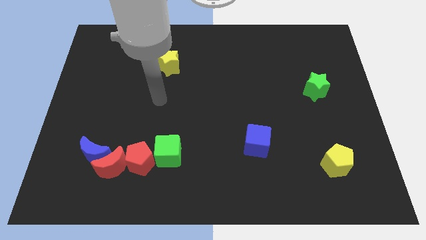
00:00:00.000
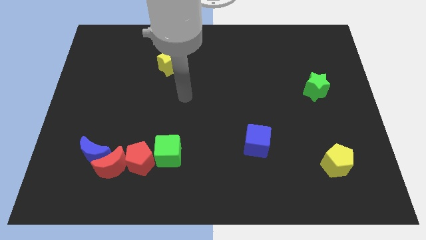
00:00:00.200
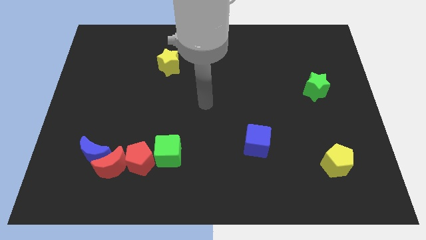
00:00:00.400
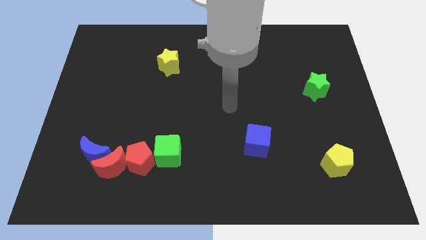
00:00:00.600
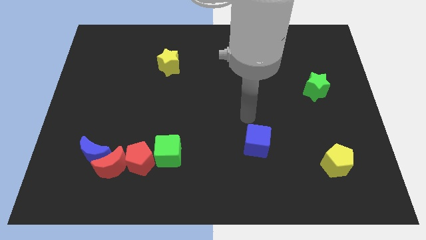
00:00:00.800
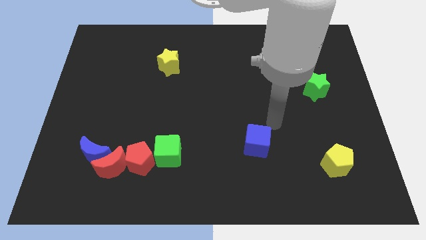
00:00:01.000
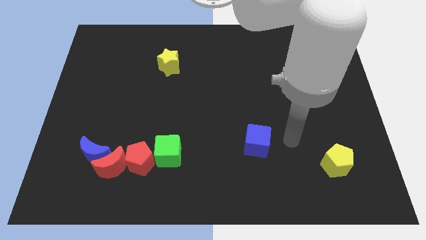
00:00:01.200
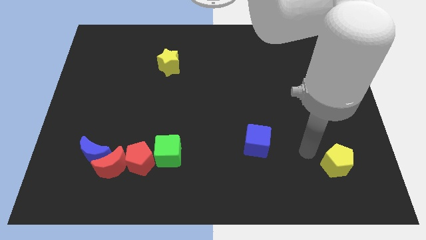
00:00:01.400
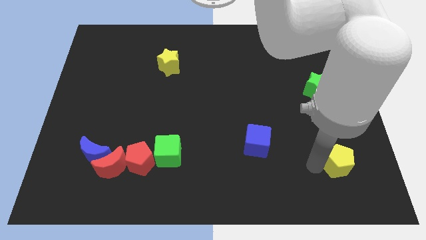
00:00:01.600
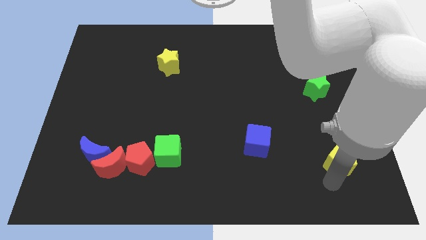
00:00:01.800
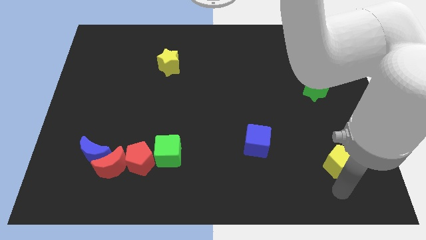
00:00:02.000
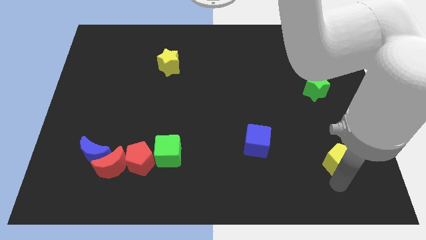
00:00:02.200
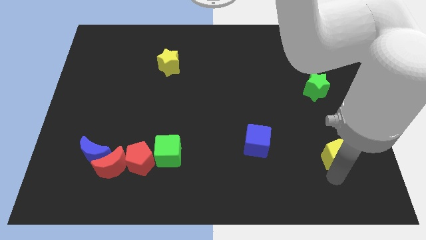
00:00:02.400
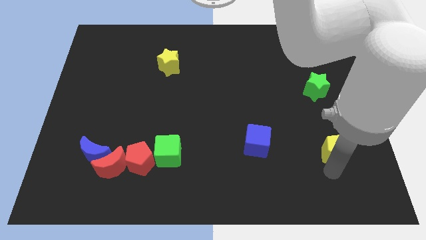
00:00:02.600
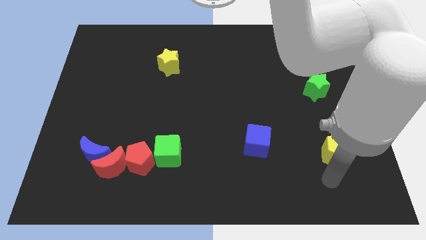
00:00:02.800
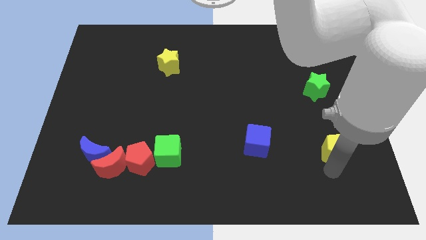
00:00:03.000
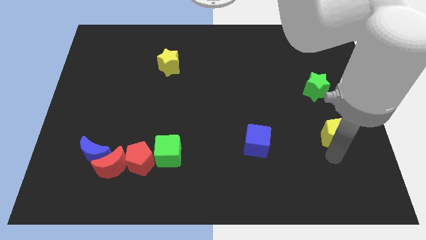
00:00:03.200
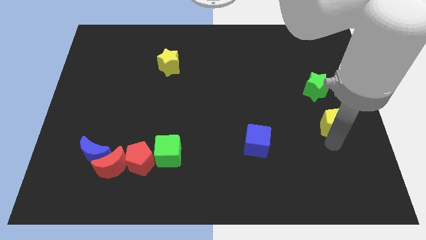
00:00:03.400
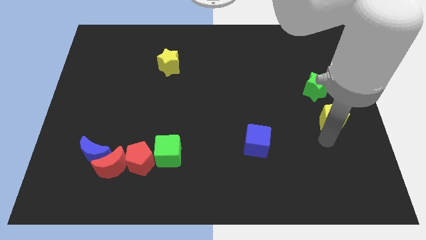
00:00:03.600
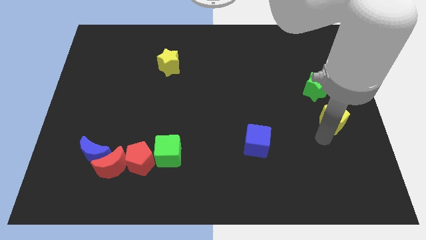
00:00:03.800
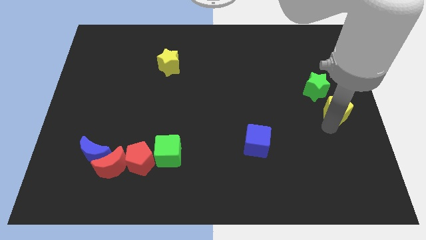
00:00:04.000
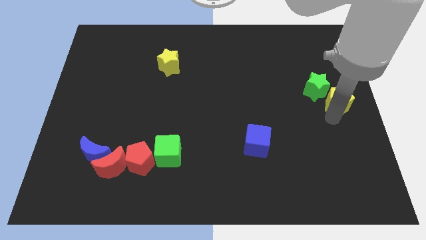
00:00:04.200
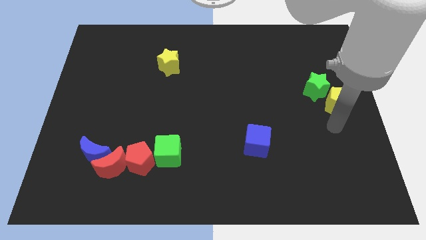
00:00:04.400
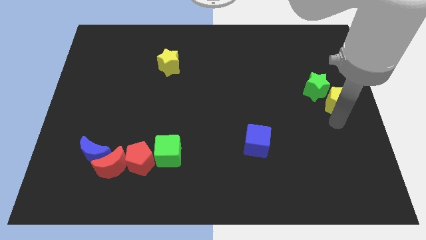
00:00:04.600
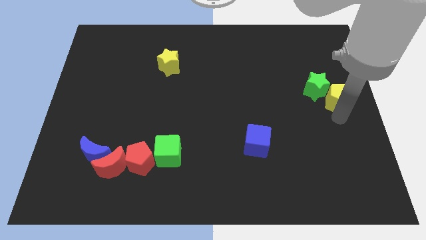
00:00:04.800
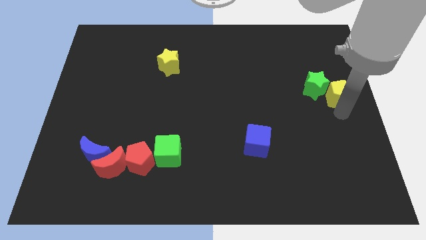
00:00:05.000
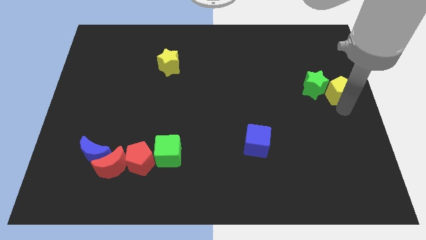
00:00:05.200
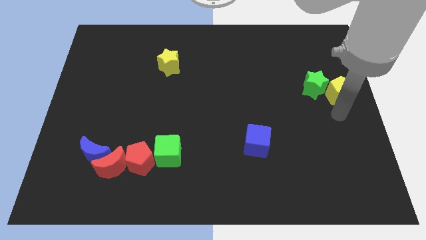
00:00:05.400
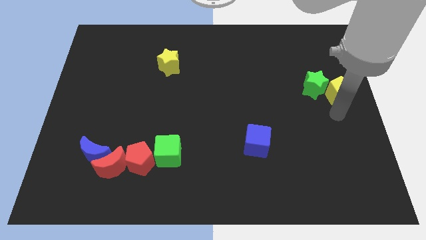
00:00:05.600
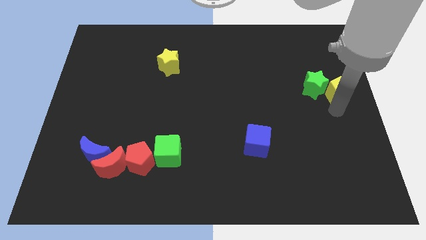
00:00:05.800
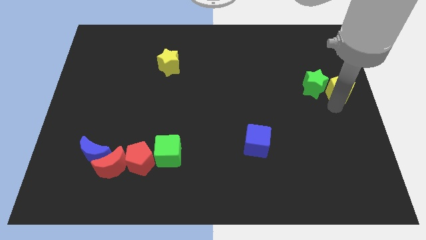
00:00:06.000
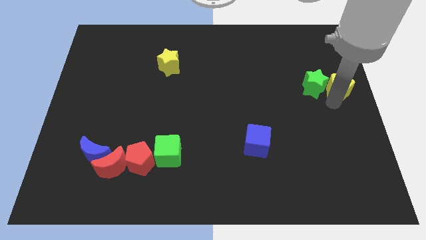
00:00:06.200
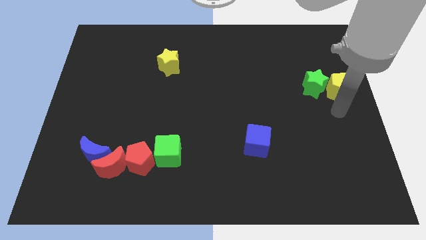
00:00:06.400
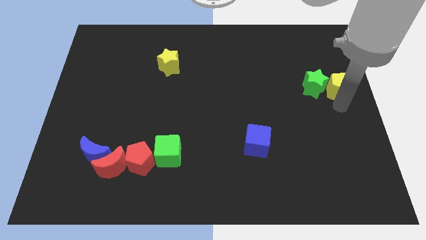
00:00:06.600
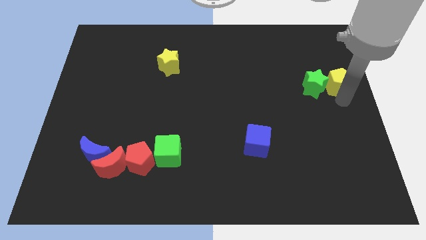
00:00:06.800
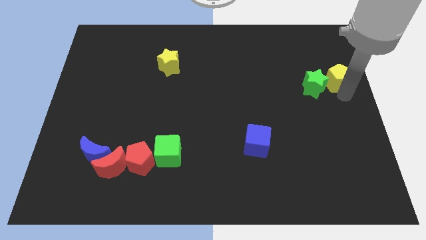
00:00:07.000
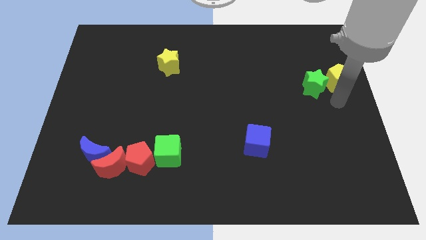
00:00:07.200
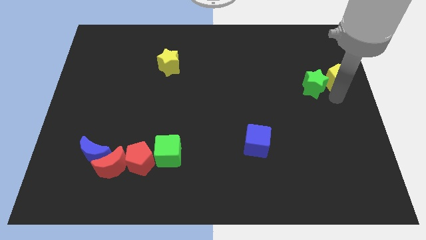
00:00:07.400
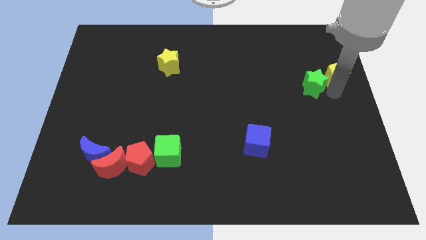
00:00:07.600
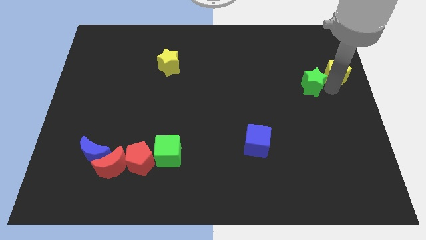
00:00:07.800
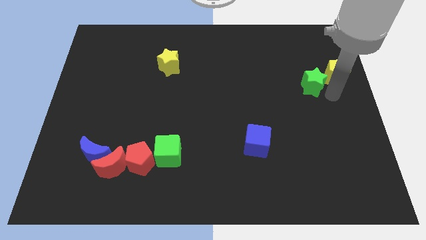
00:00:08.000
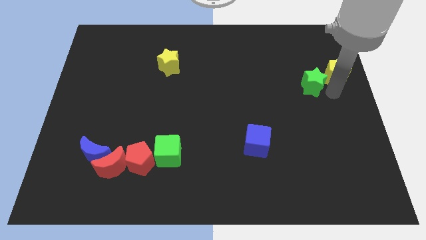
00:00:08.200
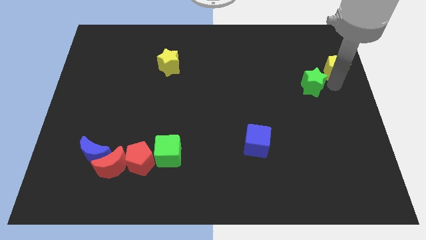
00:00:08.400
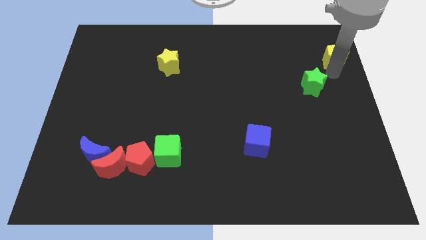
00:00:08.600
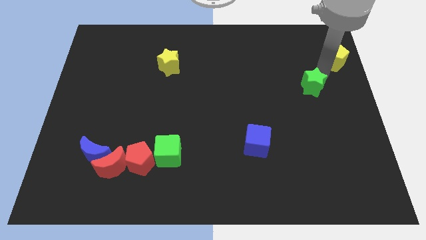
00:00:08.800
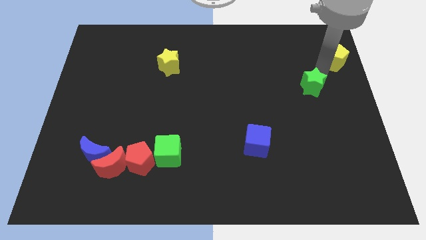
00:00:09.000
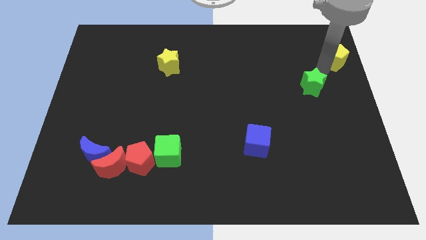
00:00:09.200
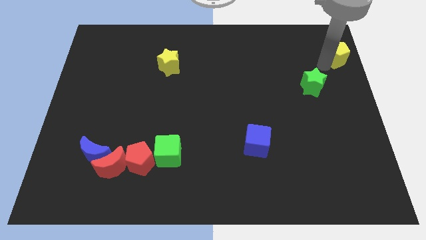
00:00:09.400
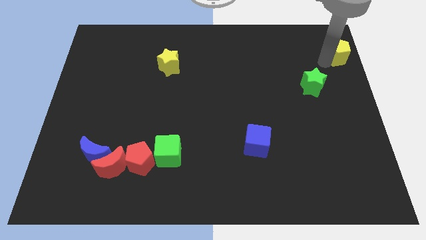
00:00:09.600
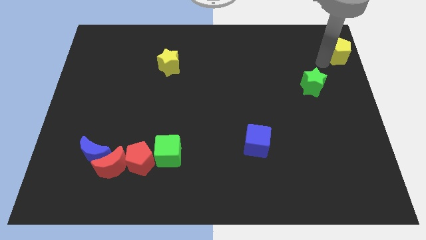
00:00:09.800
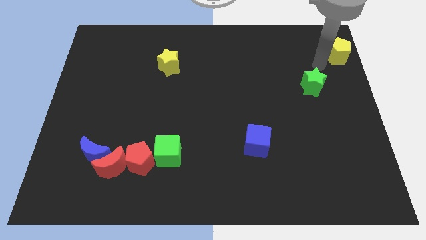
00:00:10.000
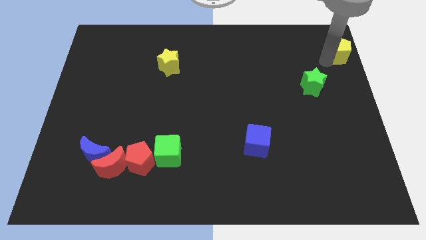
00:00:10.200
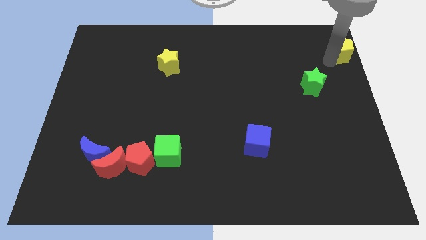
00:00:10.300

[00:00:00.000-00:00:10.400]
put the yellow pentagon to the upper right corner

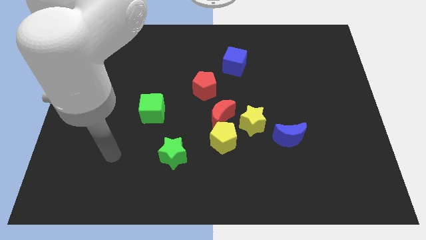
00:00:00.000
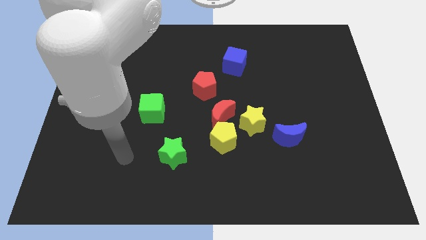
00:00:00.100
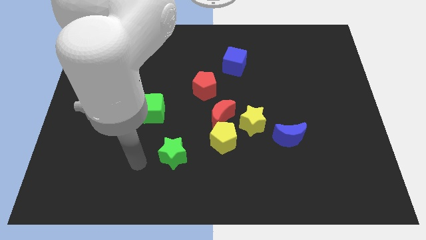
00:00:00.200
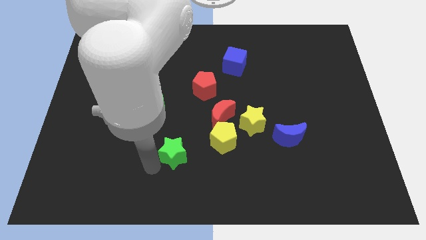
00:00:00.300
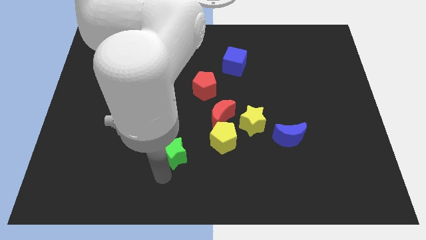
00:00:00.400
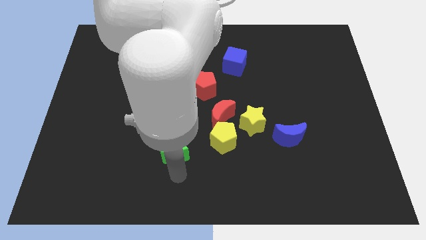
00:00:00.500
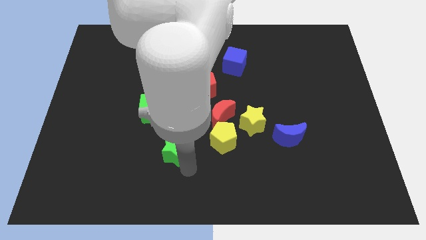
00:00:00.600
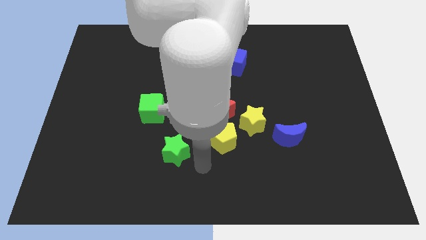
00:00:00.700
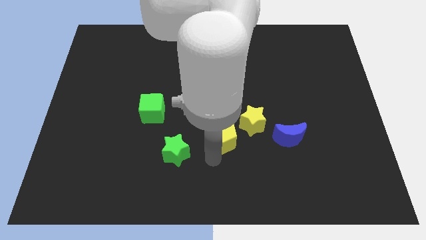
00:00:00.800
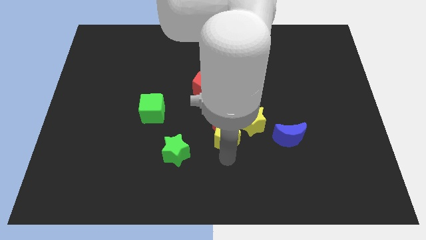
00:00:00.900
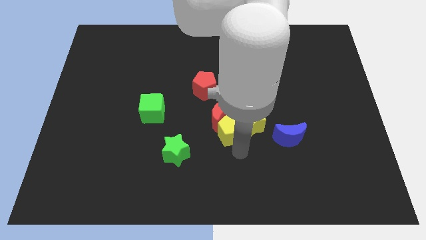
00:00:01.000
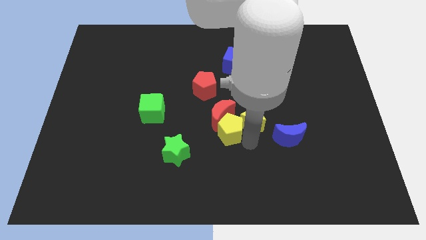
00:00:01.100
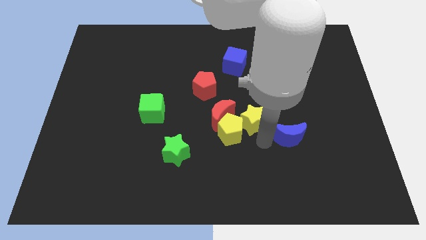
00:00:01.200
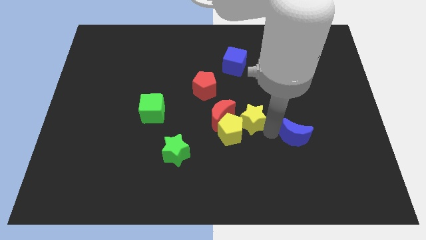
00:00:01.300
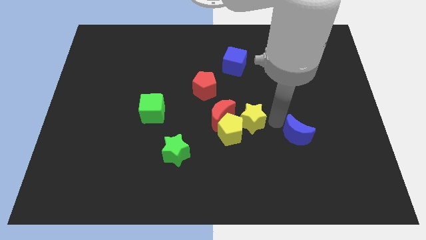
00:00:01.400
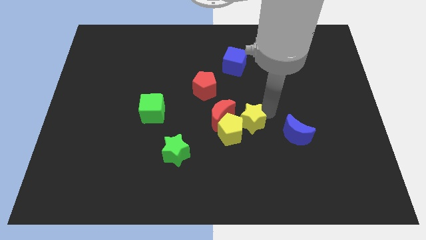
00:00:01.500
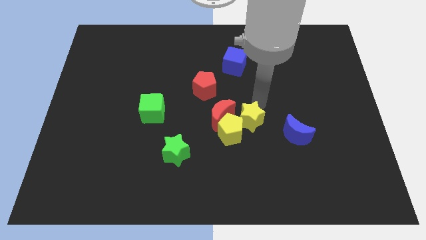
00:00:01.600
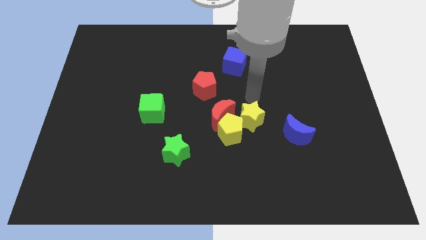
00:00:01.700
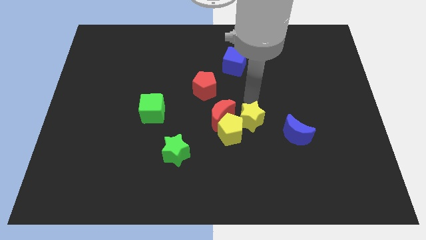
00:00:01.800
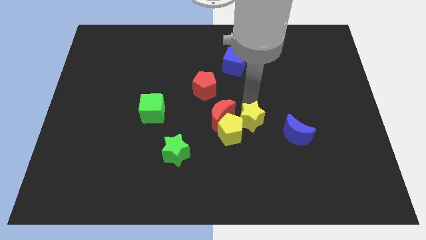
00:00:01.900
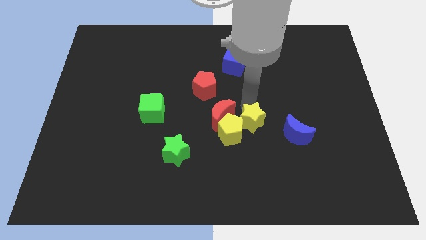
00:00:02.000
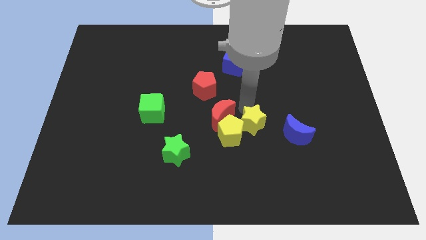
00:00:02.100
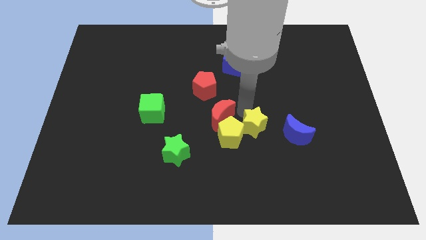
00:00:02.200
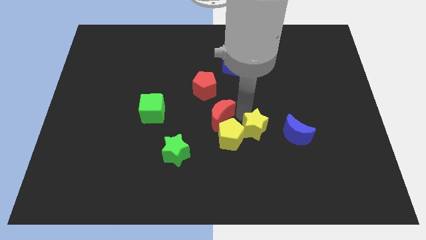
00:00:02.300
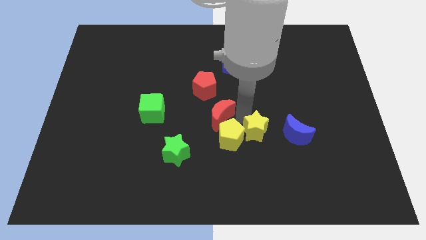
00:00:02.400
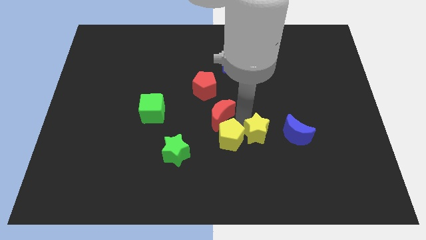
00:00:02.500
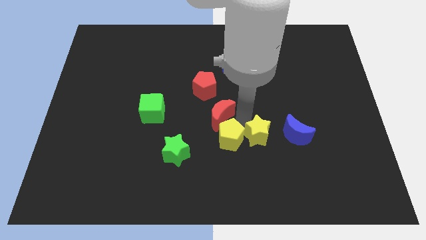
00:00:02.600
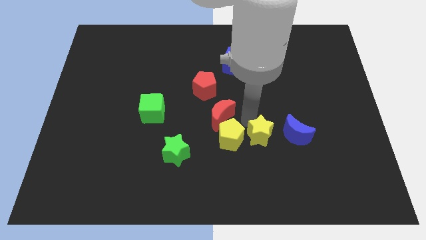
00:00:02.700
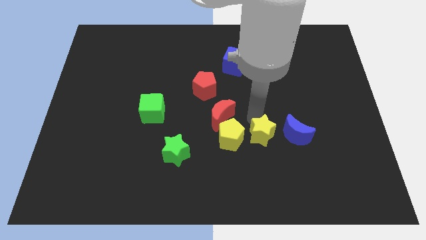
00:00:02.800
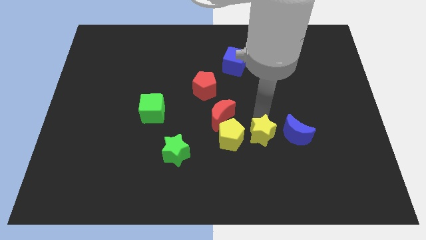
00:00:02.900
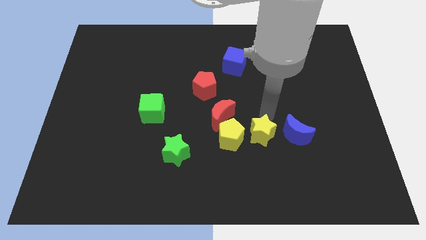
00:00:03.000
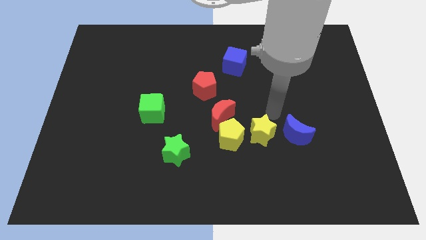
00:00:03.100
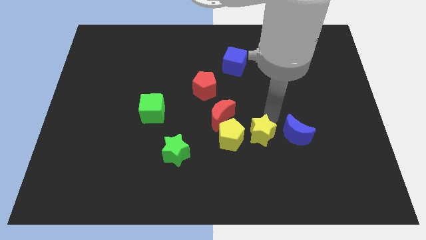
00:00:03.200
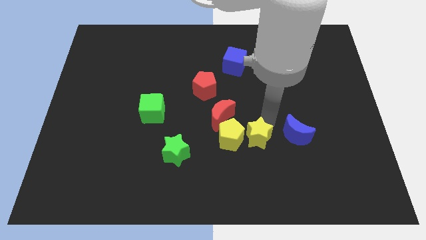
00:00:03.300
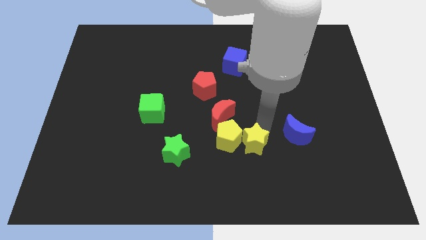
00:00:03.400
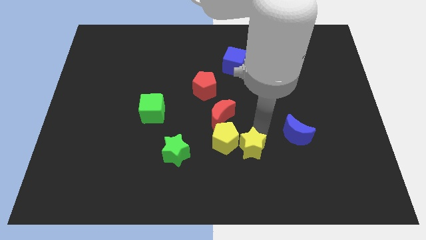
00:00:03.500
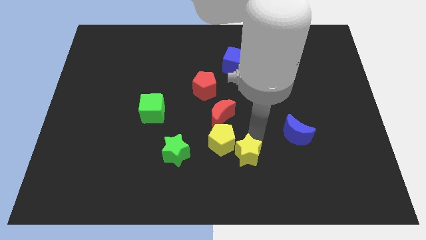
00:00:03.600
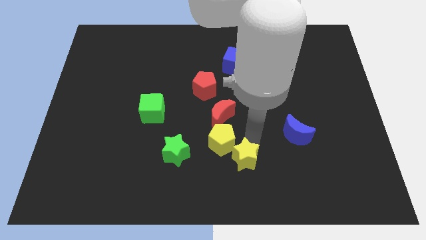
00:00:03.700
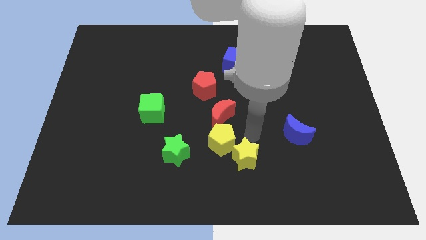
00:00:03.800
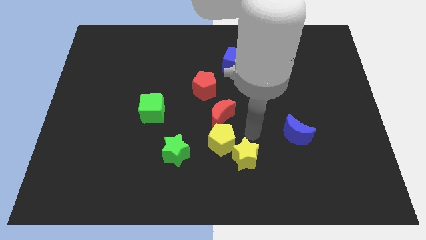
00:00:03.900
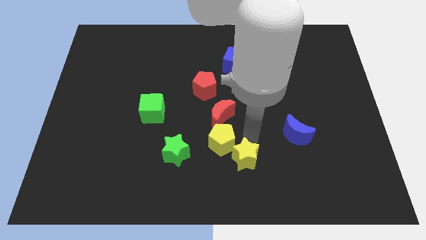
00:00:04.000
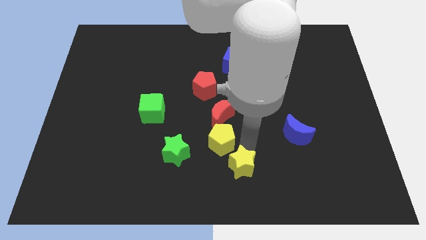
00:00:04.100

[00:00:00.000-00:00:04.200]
push the yellow star to the bottom side
